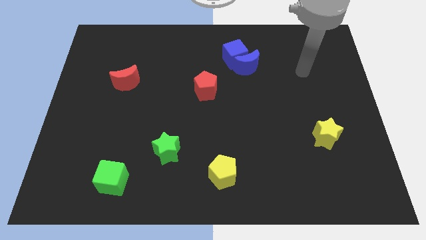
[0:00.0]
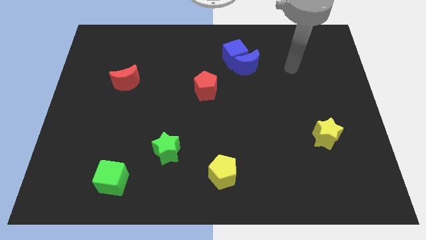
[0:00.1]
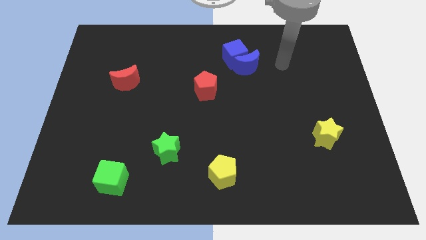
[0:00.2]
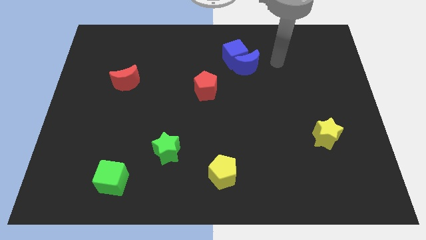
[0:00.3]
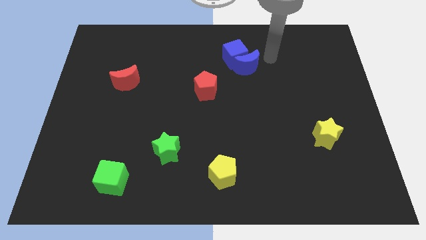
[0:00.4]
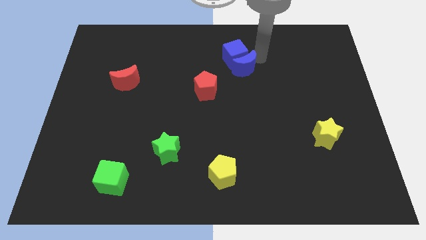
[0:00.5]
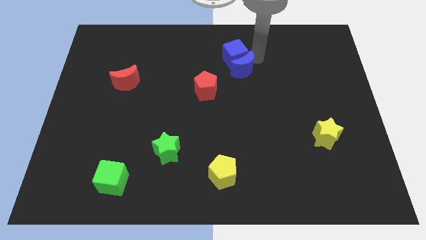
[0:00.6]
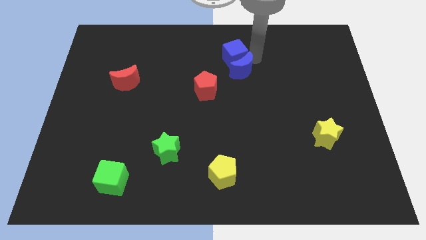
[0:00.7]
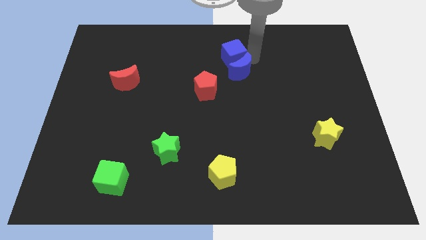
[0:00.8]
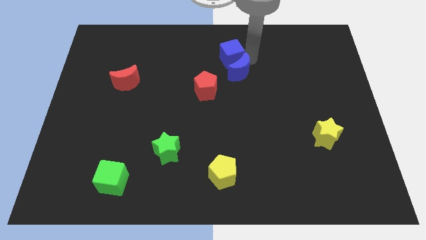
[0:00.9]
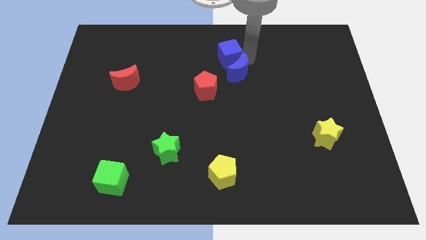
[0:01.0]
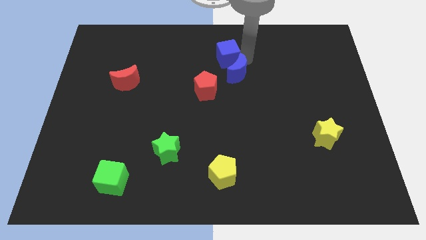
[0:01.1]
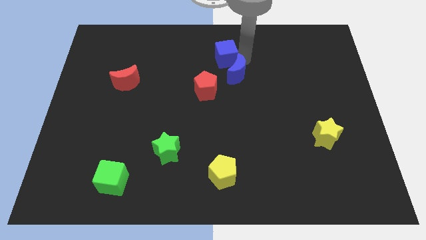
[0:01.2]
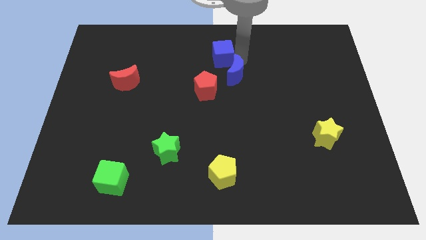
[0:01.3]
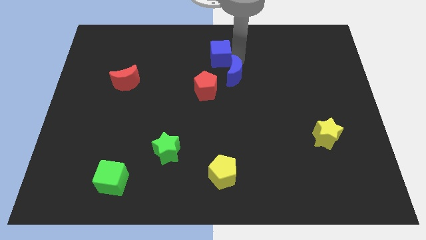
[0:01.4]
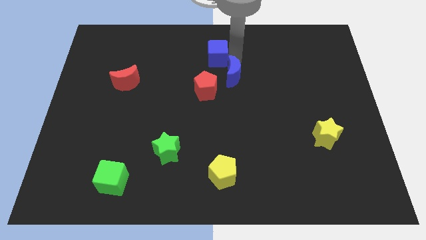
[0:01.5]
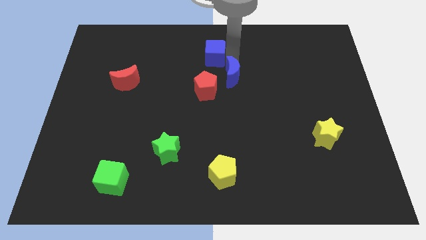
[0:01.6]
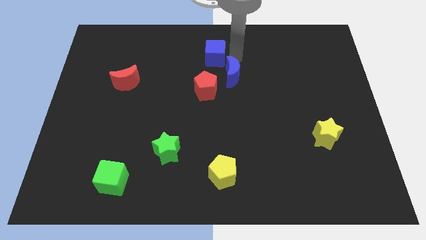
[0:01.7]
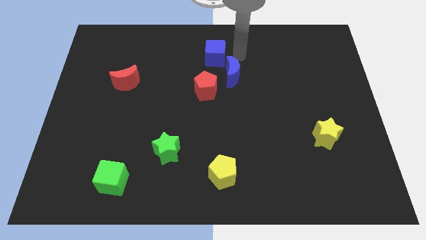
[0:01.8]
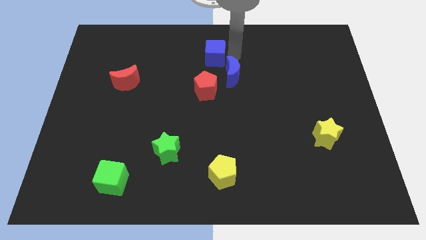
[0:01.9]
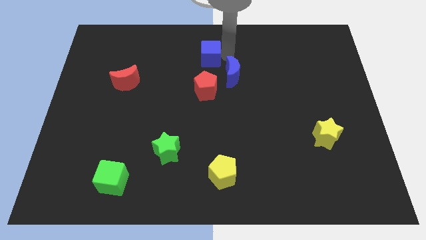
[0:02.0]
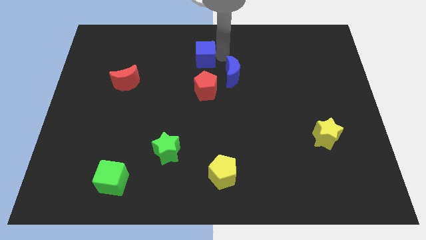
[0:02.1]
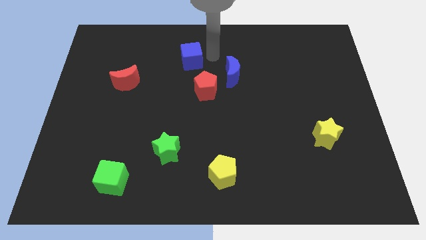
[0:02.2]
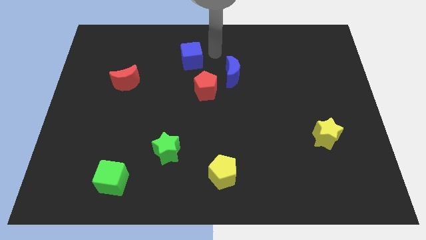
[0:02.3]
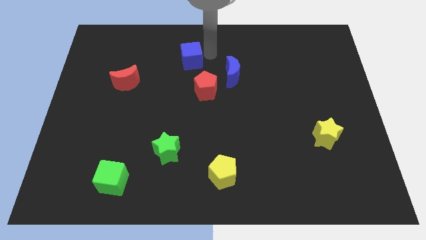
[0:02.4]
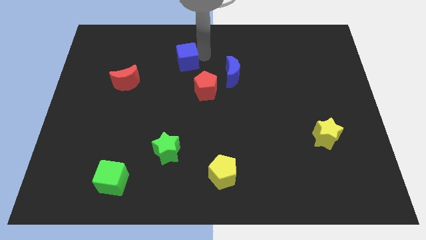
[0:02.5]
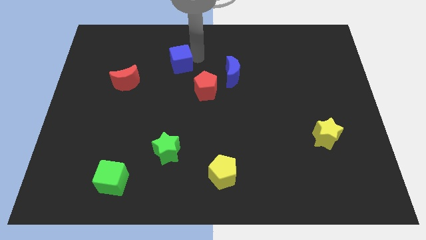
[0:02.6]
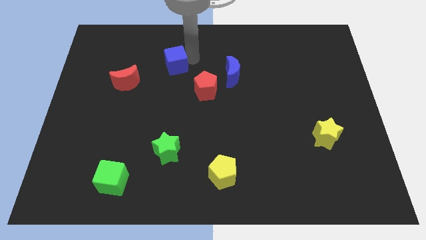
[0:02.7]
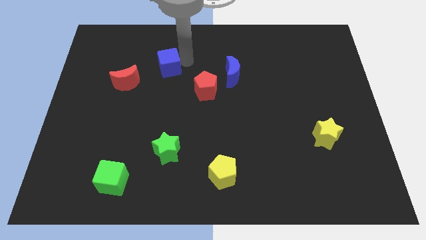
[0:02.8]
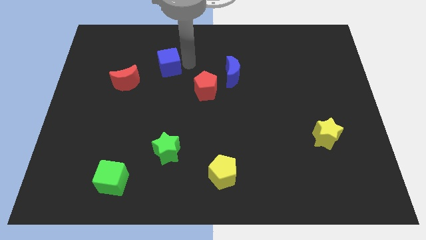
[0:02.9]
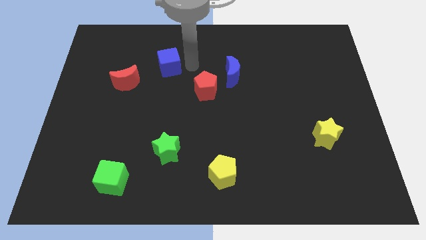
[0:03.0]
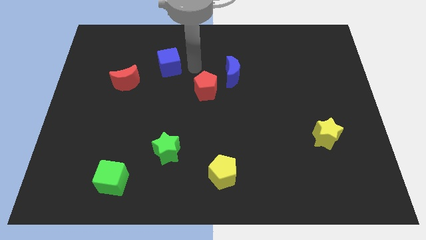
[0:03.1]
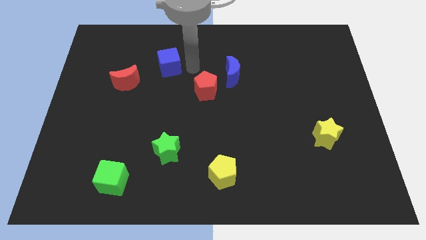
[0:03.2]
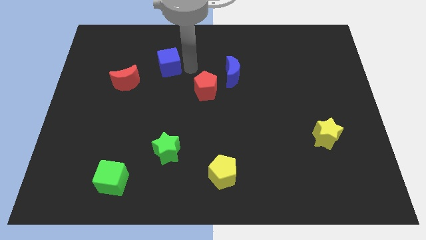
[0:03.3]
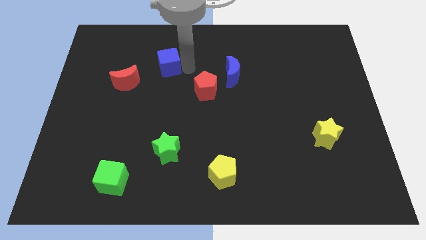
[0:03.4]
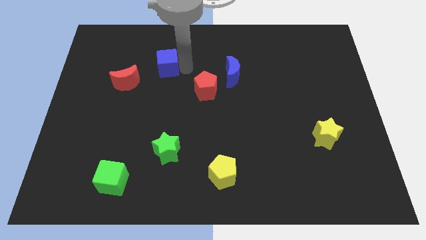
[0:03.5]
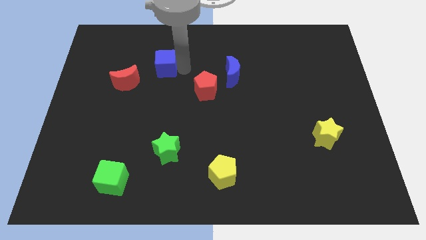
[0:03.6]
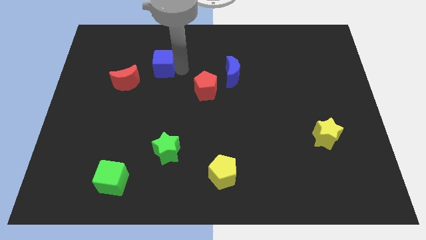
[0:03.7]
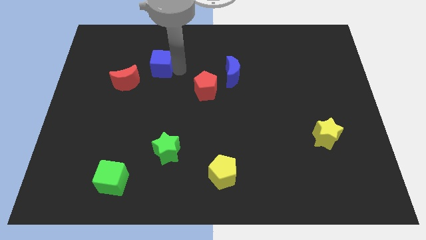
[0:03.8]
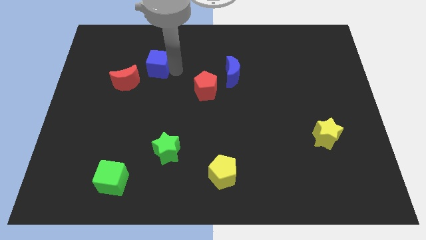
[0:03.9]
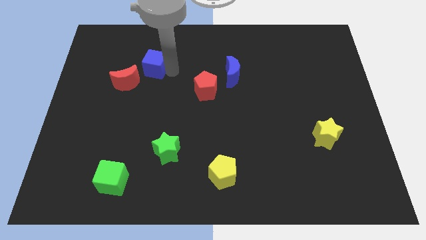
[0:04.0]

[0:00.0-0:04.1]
move the blue cube to the left

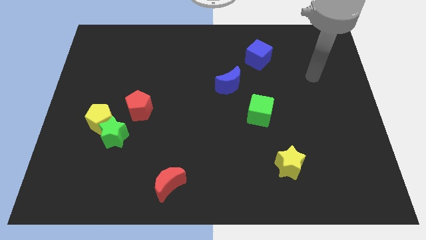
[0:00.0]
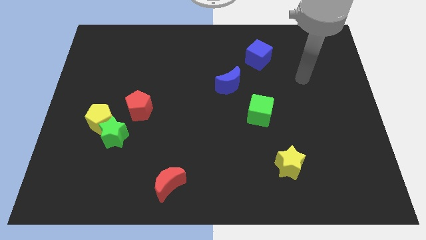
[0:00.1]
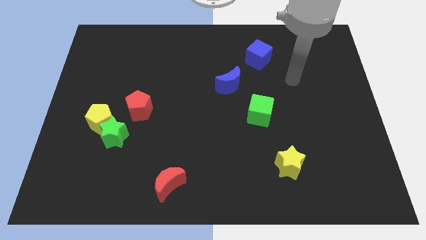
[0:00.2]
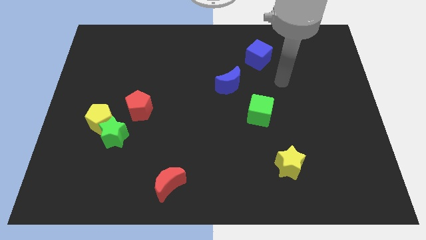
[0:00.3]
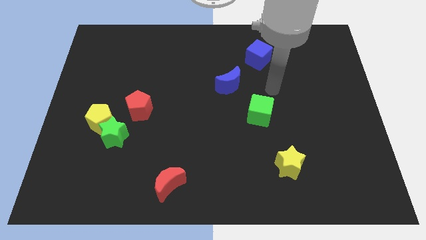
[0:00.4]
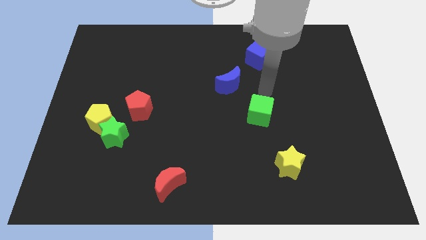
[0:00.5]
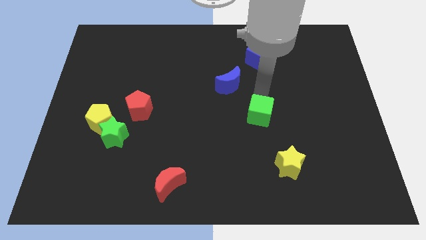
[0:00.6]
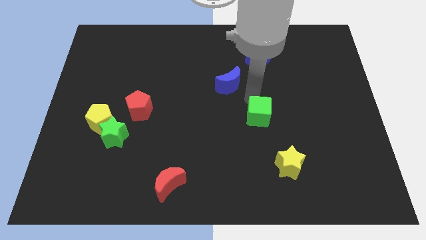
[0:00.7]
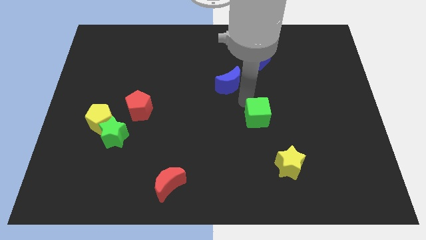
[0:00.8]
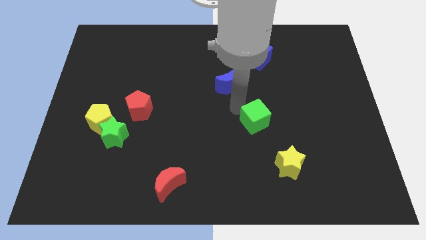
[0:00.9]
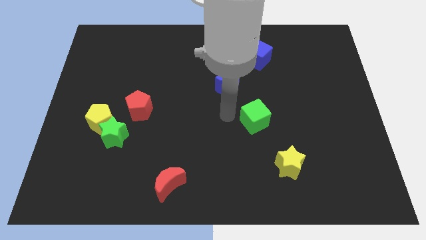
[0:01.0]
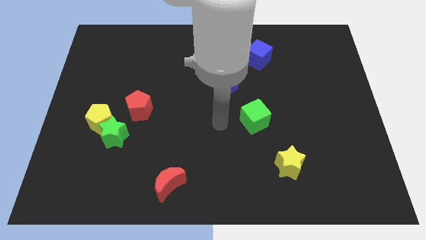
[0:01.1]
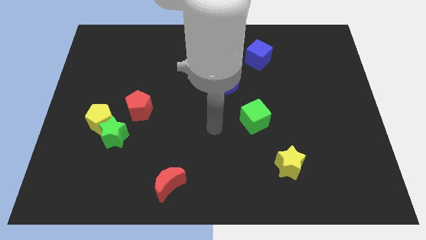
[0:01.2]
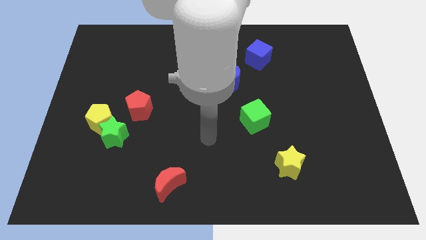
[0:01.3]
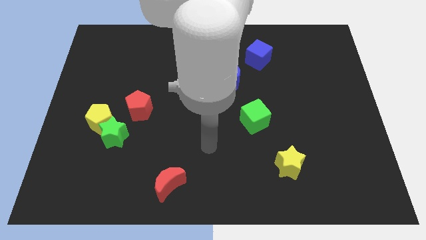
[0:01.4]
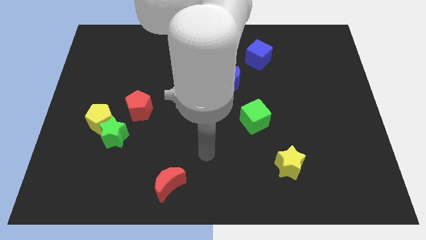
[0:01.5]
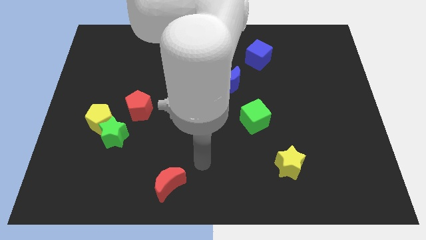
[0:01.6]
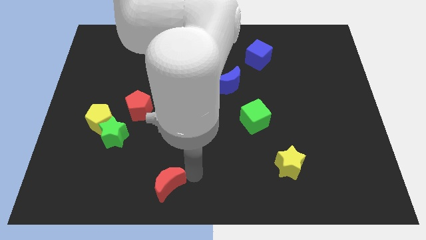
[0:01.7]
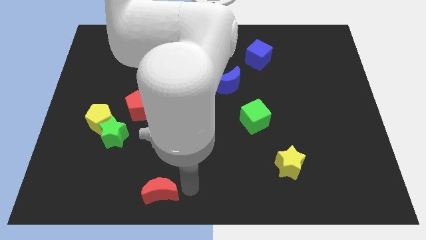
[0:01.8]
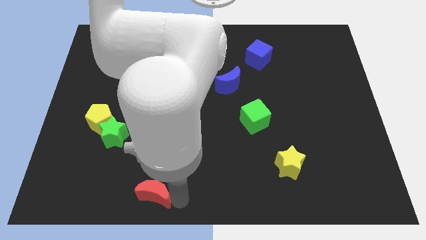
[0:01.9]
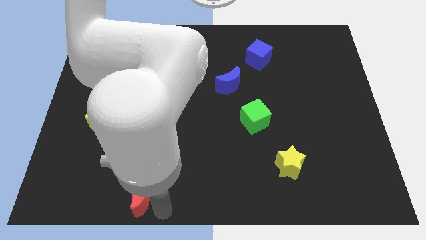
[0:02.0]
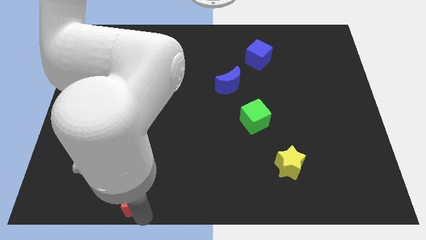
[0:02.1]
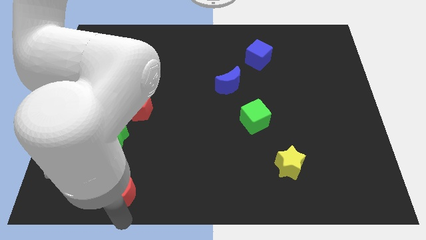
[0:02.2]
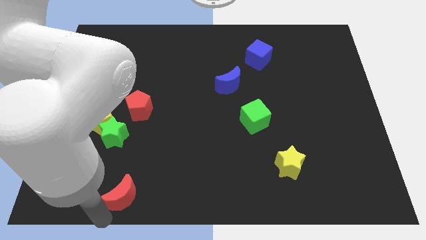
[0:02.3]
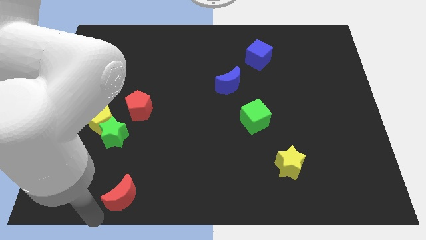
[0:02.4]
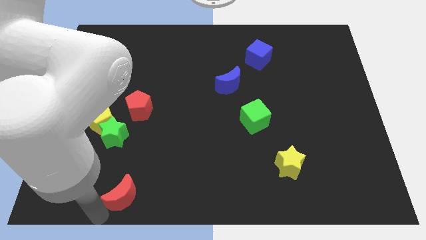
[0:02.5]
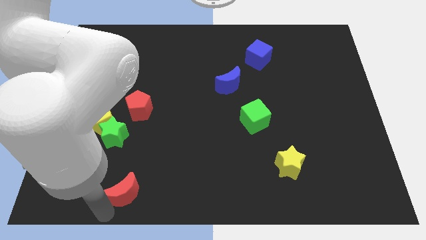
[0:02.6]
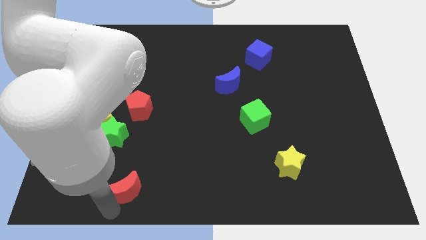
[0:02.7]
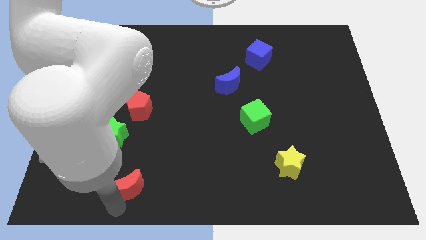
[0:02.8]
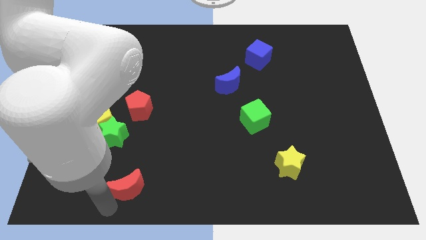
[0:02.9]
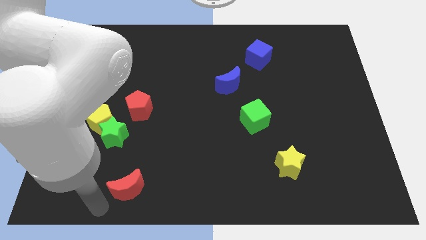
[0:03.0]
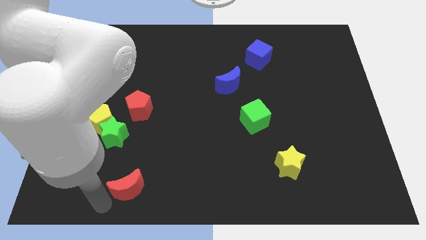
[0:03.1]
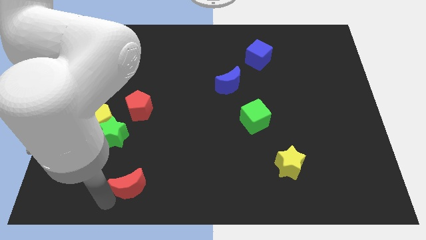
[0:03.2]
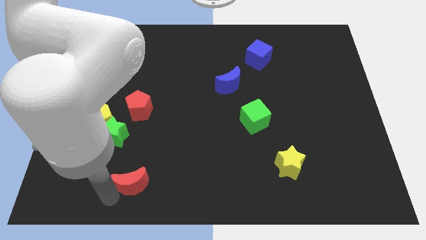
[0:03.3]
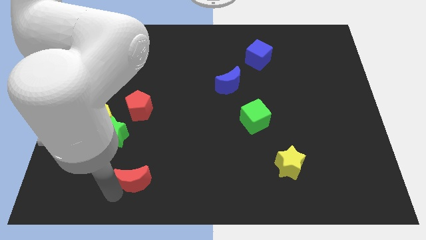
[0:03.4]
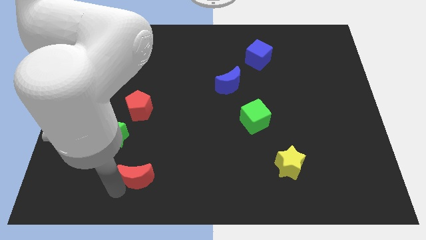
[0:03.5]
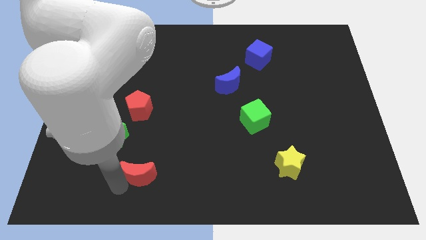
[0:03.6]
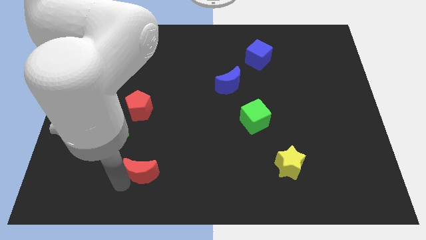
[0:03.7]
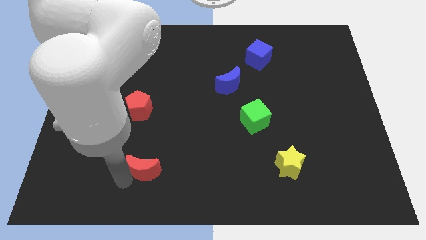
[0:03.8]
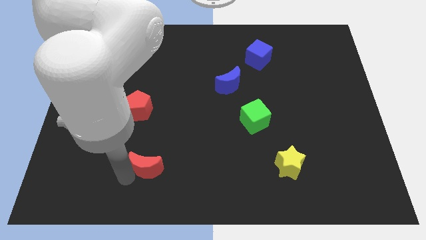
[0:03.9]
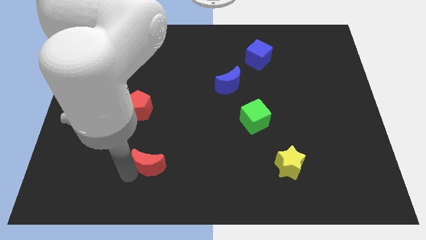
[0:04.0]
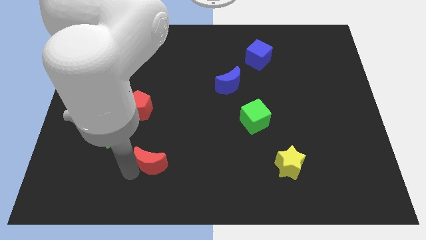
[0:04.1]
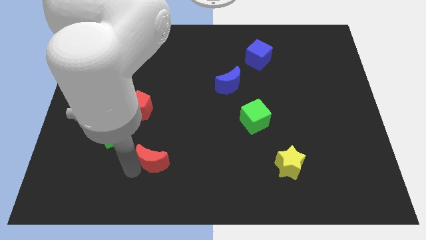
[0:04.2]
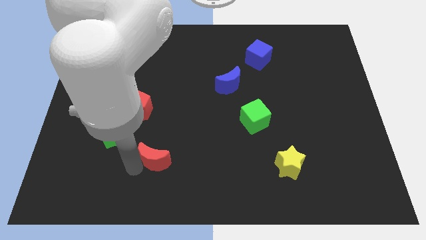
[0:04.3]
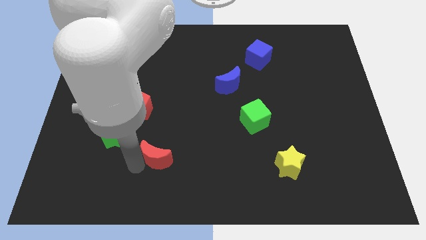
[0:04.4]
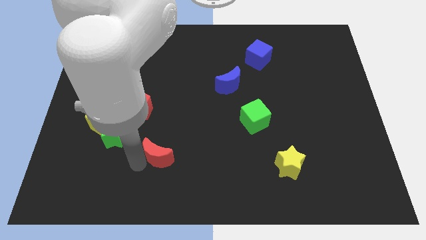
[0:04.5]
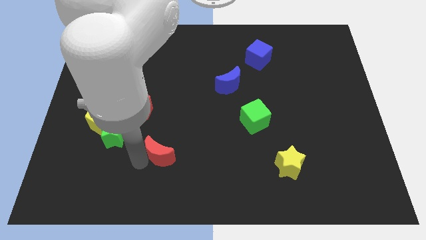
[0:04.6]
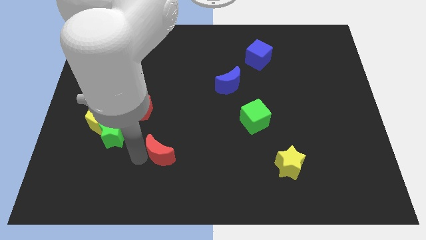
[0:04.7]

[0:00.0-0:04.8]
slide the red moon upwards a little bit
